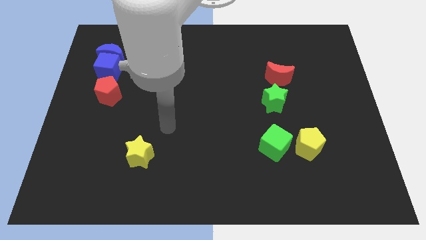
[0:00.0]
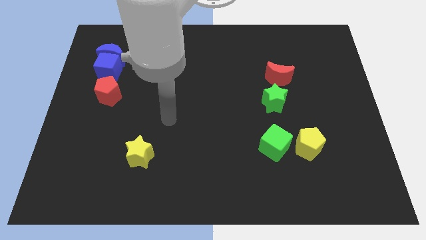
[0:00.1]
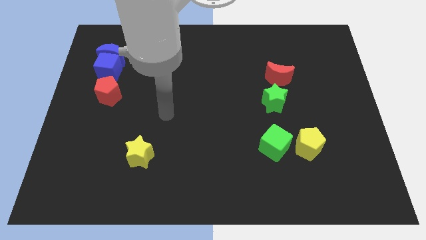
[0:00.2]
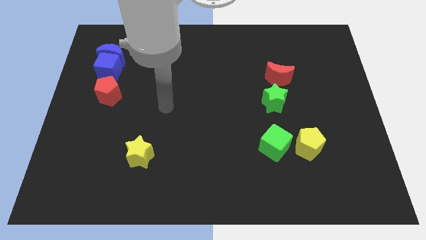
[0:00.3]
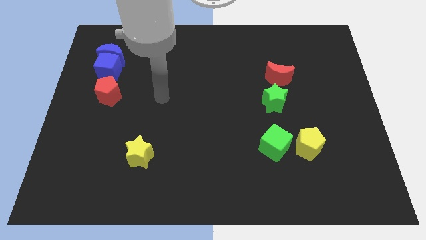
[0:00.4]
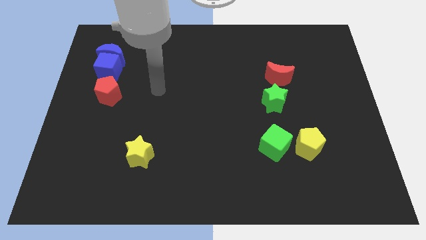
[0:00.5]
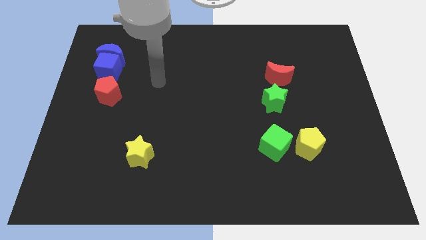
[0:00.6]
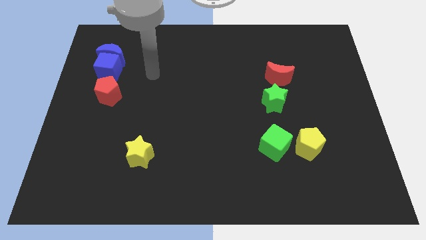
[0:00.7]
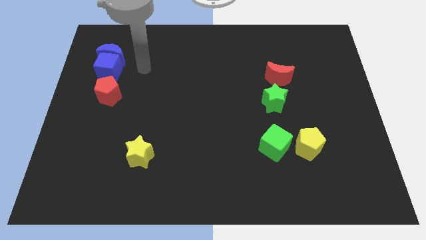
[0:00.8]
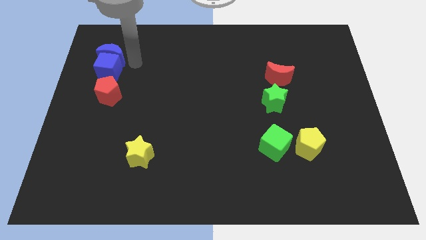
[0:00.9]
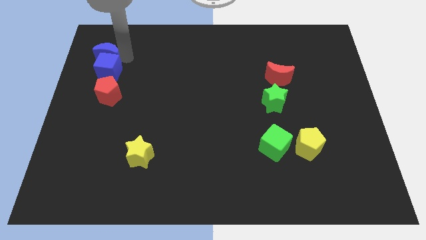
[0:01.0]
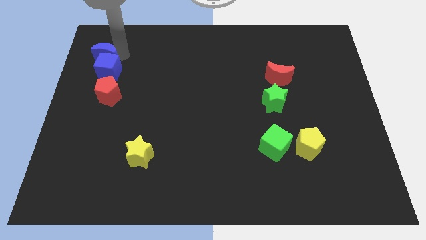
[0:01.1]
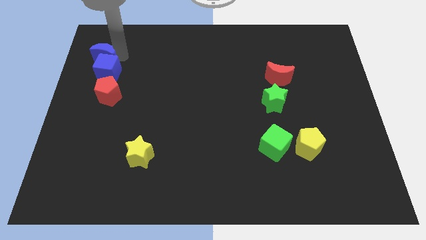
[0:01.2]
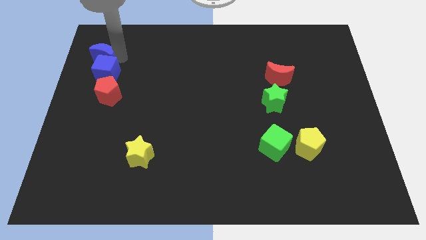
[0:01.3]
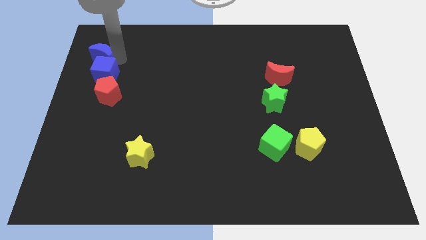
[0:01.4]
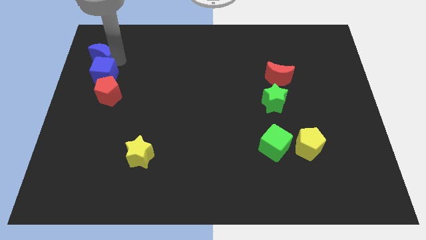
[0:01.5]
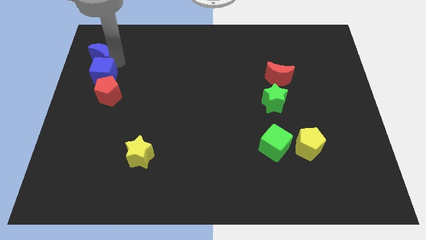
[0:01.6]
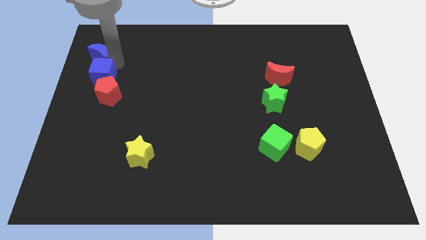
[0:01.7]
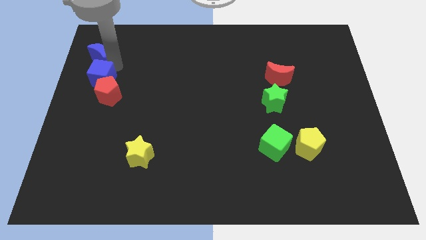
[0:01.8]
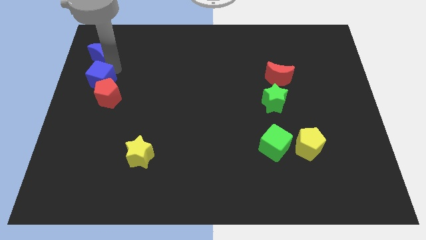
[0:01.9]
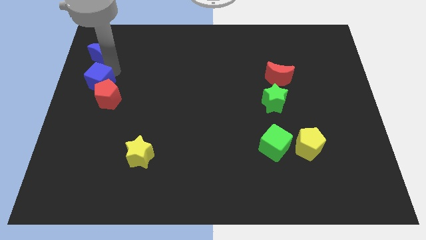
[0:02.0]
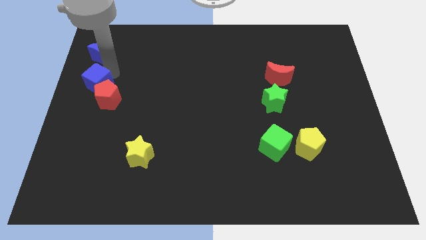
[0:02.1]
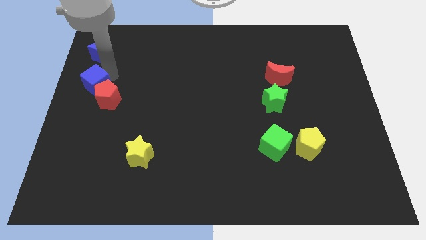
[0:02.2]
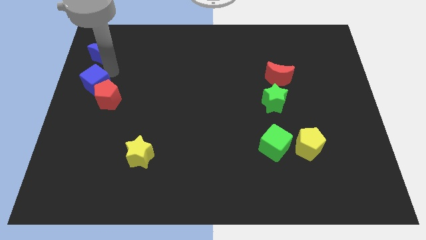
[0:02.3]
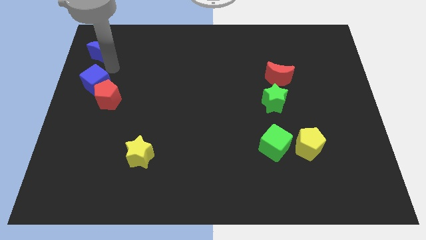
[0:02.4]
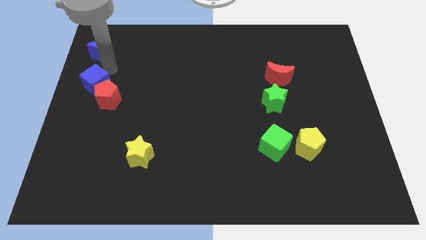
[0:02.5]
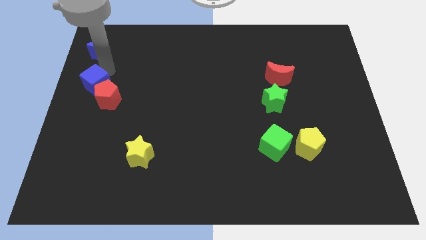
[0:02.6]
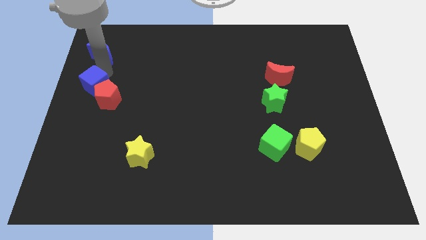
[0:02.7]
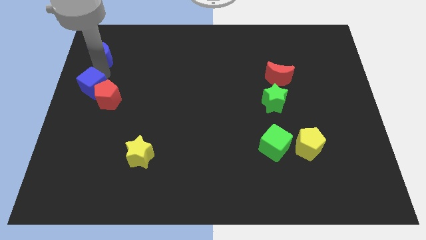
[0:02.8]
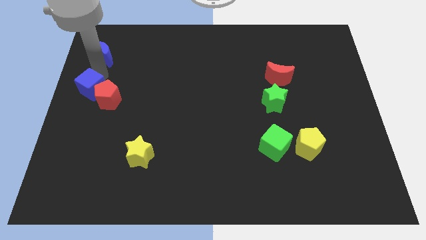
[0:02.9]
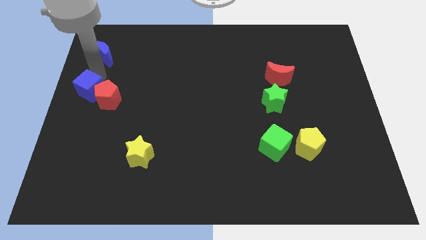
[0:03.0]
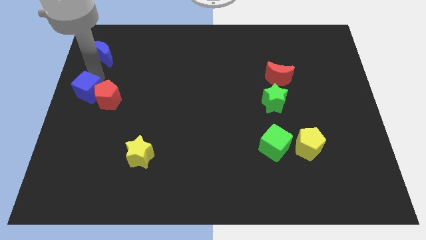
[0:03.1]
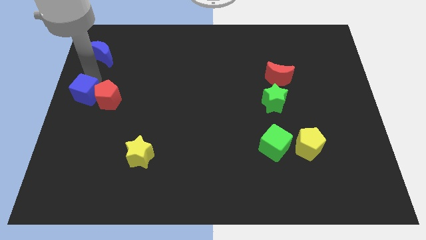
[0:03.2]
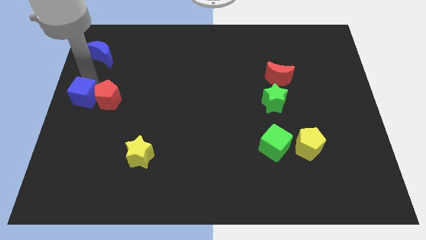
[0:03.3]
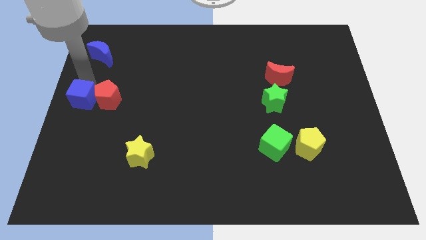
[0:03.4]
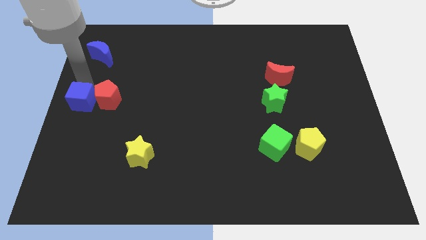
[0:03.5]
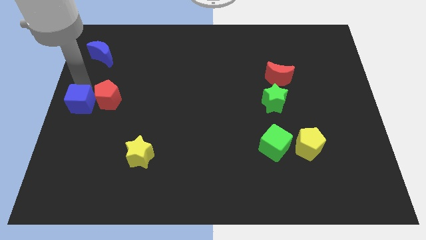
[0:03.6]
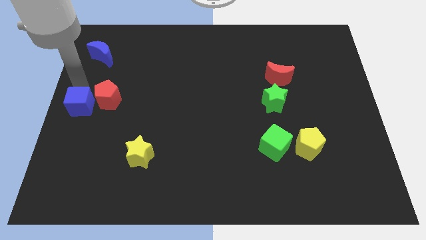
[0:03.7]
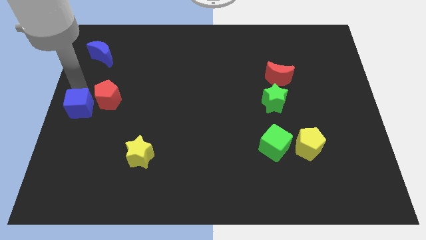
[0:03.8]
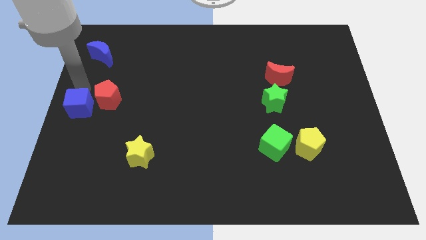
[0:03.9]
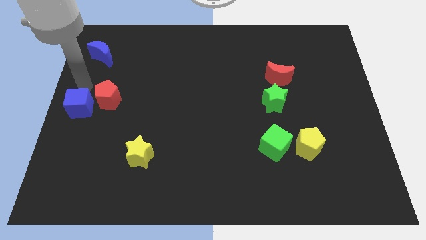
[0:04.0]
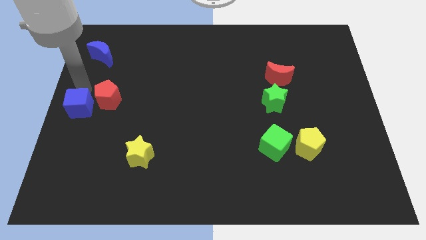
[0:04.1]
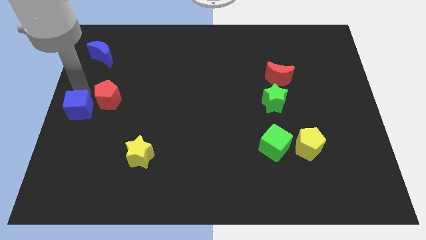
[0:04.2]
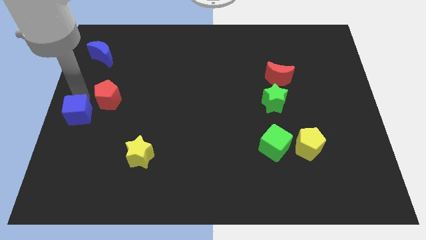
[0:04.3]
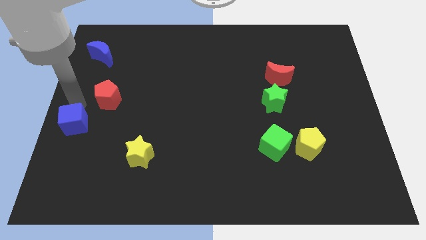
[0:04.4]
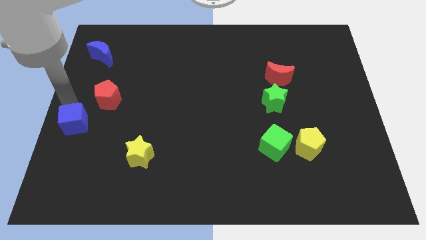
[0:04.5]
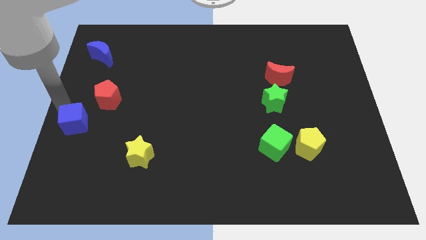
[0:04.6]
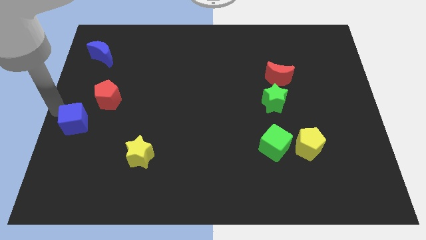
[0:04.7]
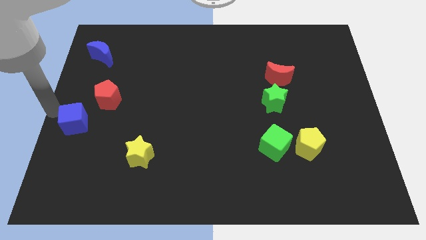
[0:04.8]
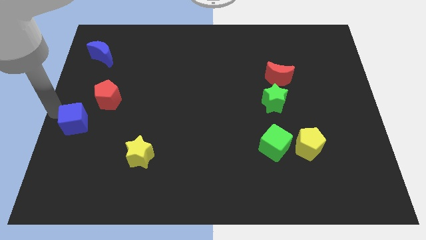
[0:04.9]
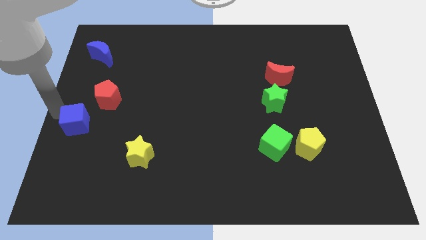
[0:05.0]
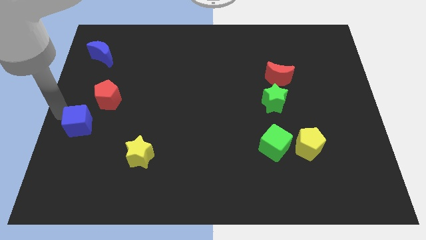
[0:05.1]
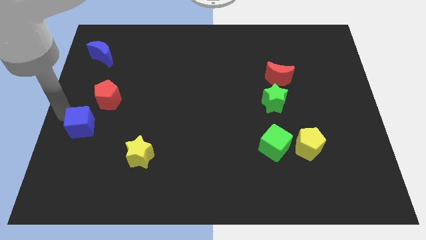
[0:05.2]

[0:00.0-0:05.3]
slide the blue cube to the bottom side of the red pentagon

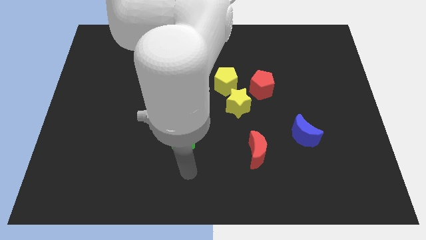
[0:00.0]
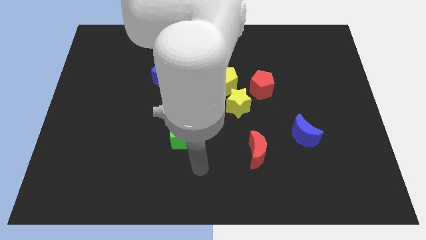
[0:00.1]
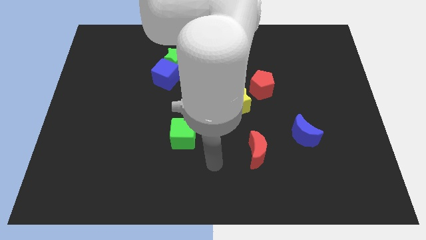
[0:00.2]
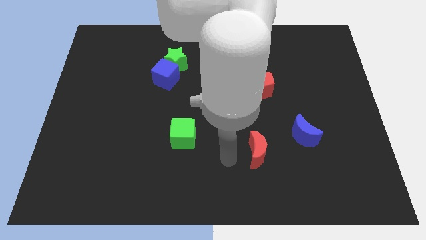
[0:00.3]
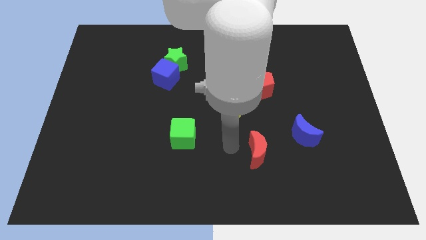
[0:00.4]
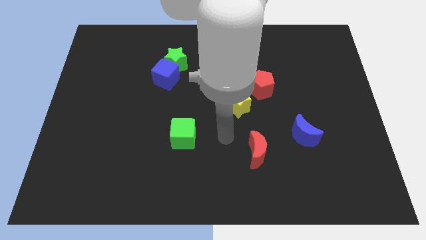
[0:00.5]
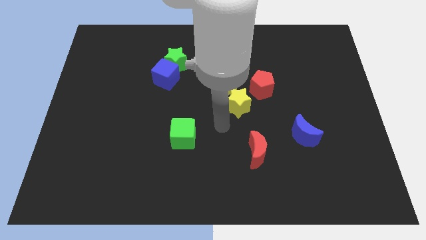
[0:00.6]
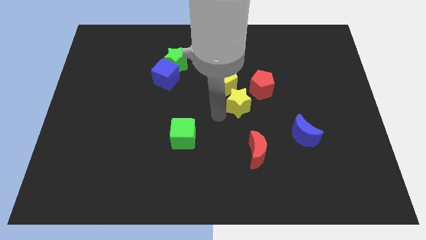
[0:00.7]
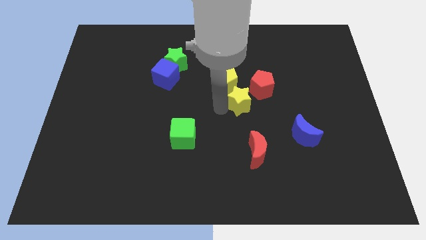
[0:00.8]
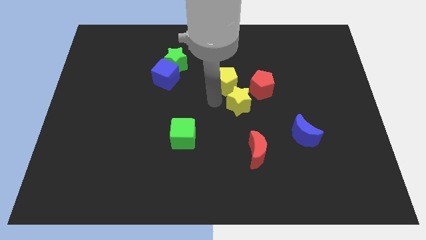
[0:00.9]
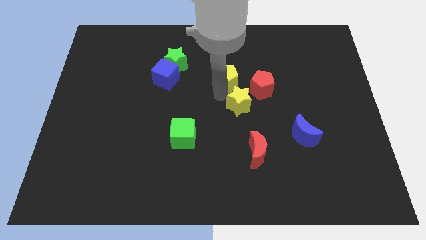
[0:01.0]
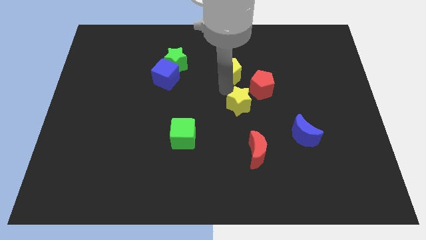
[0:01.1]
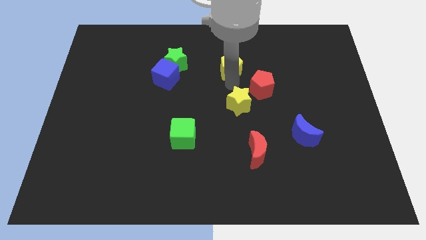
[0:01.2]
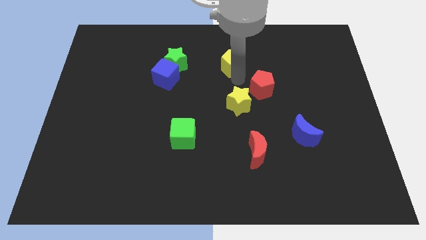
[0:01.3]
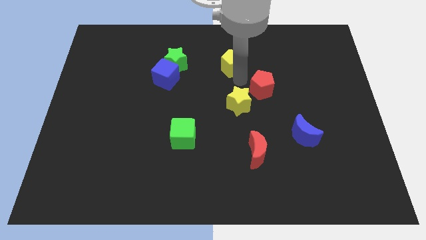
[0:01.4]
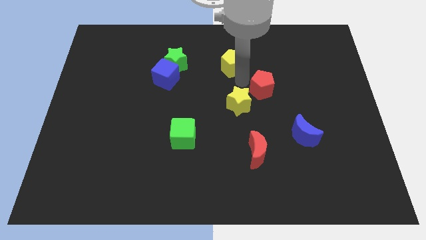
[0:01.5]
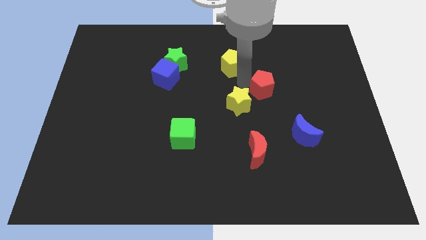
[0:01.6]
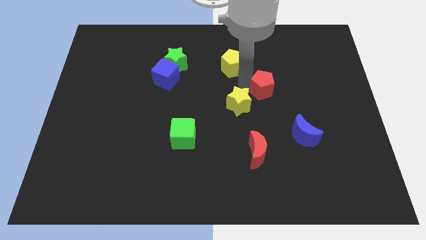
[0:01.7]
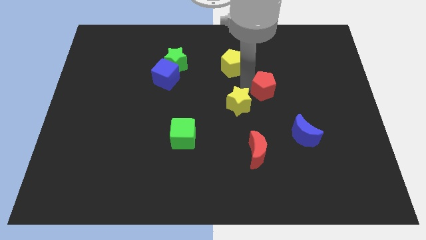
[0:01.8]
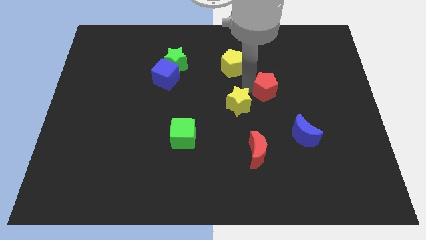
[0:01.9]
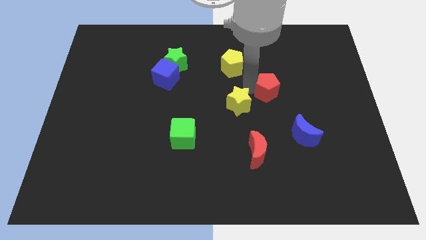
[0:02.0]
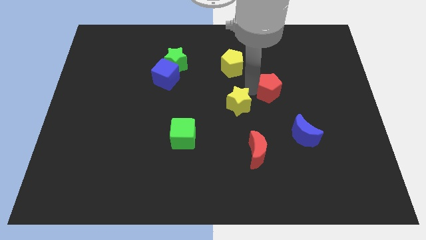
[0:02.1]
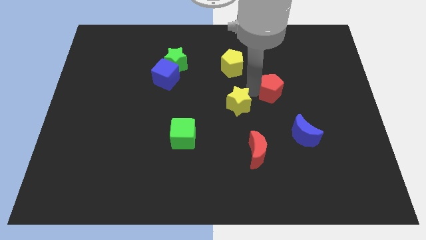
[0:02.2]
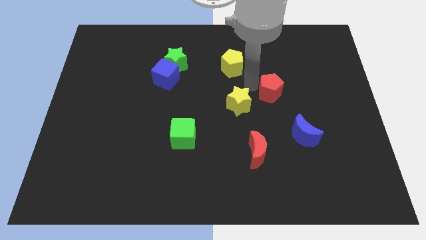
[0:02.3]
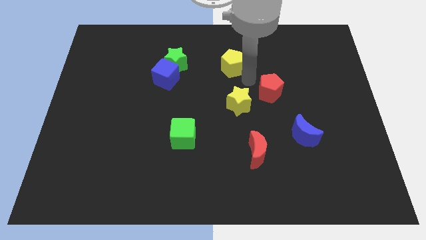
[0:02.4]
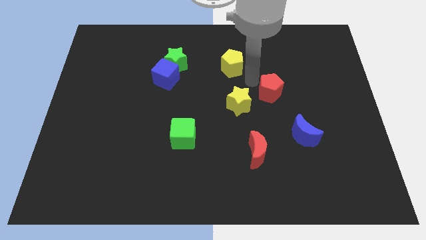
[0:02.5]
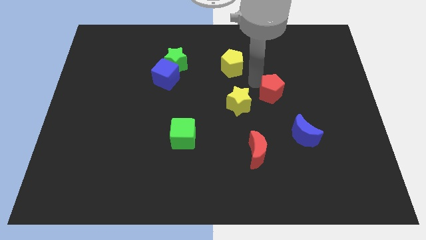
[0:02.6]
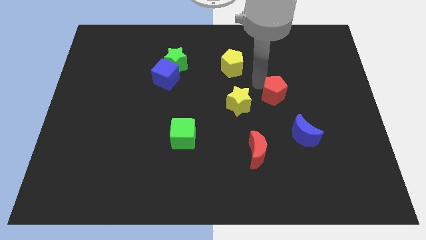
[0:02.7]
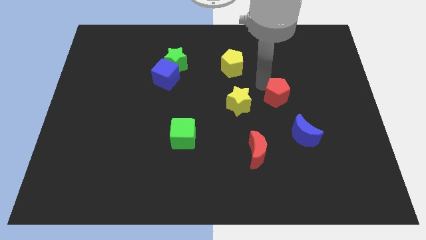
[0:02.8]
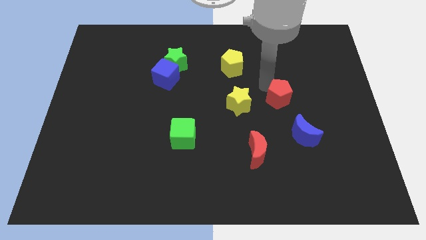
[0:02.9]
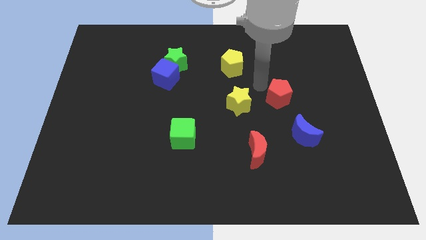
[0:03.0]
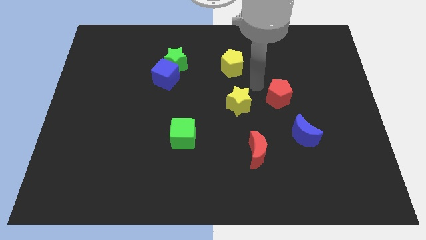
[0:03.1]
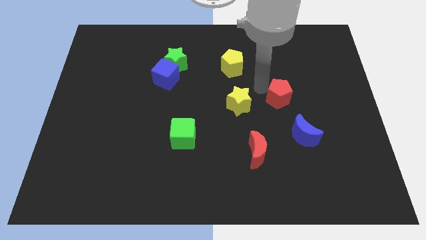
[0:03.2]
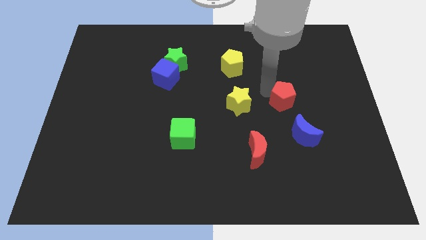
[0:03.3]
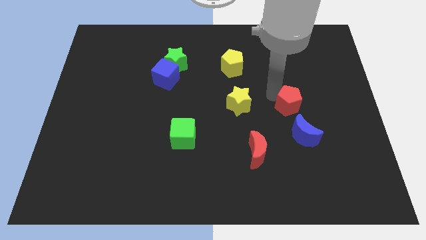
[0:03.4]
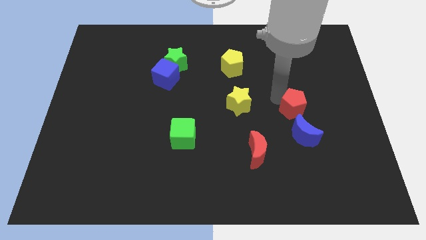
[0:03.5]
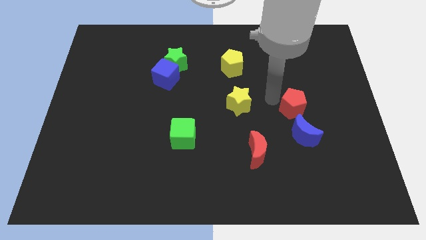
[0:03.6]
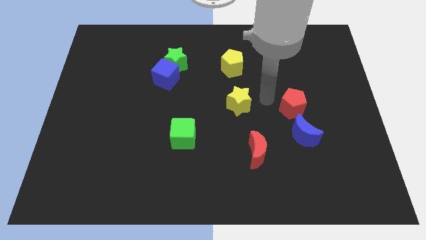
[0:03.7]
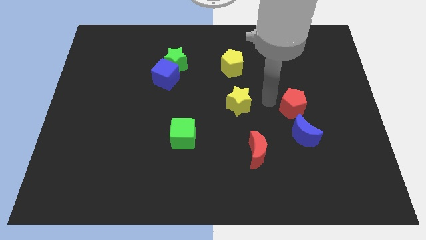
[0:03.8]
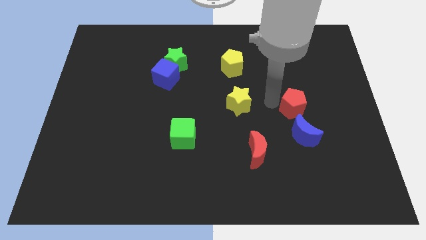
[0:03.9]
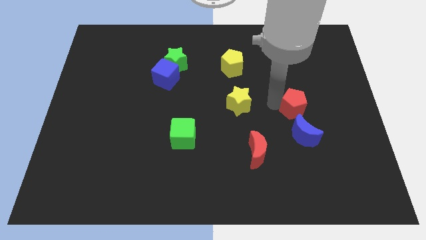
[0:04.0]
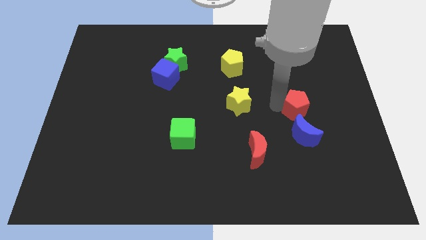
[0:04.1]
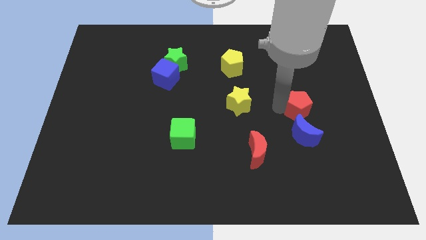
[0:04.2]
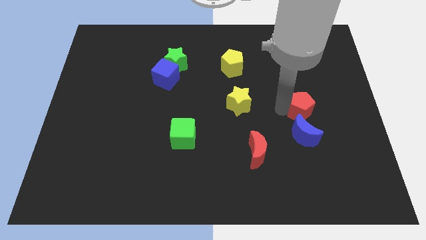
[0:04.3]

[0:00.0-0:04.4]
put the red pentagon to the top right of the blue moon
